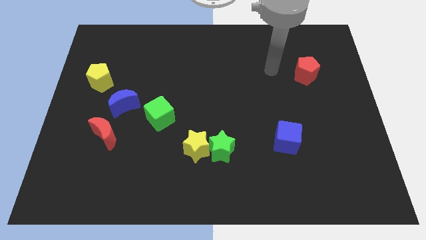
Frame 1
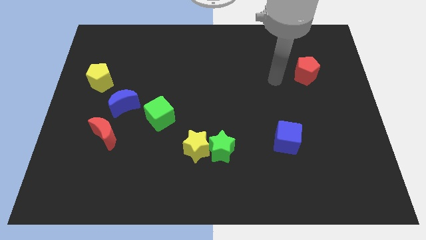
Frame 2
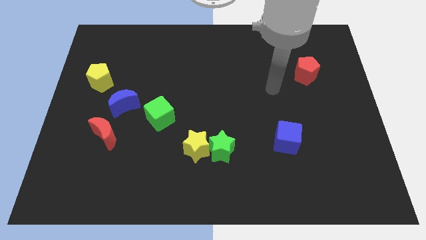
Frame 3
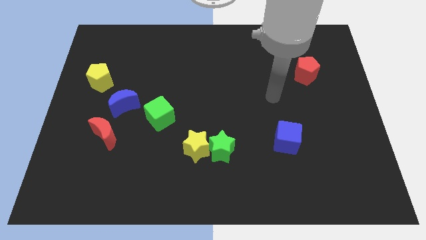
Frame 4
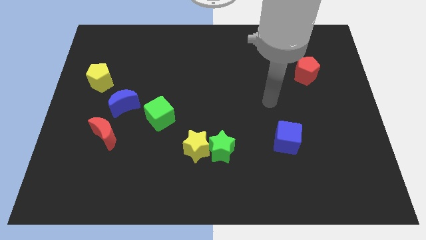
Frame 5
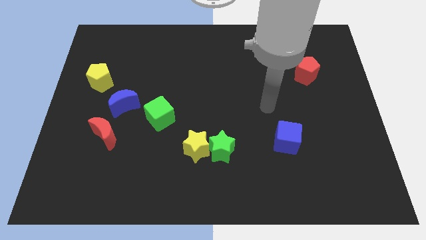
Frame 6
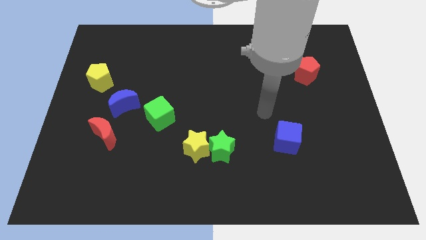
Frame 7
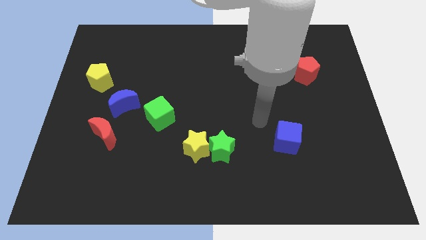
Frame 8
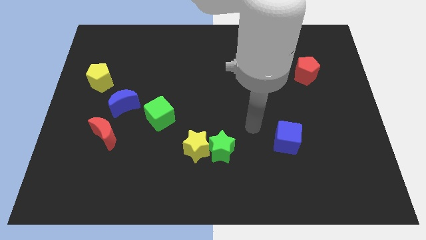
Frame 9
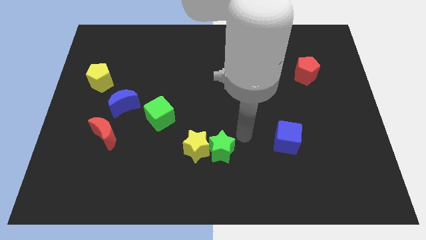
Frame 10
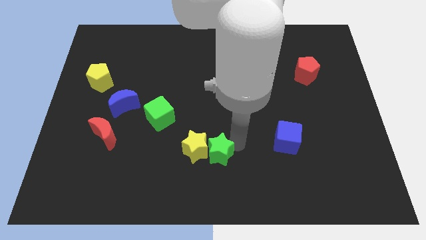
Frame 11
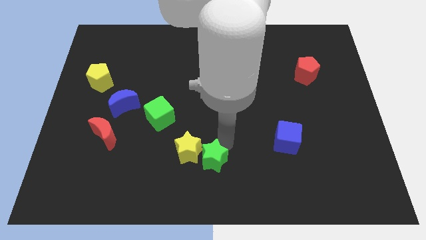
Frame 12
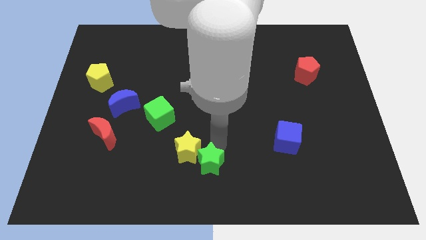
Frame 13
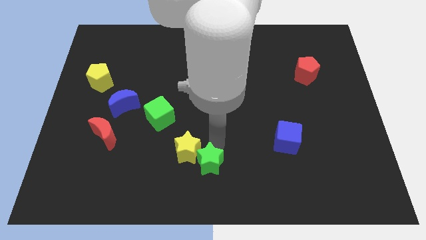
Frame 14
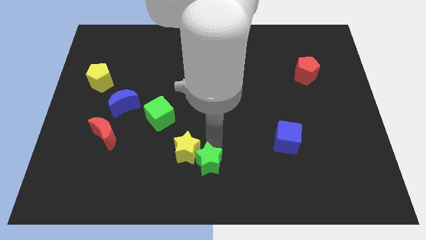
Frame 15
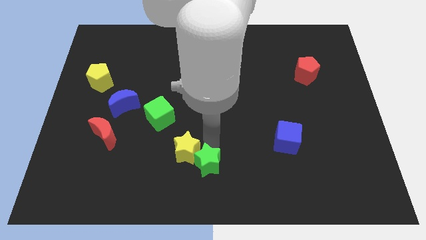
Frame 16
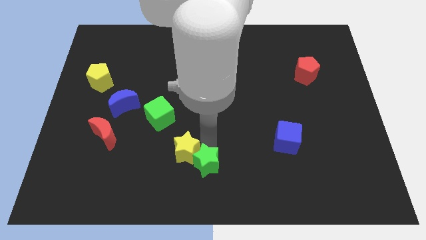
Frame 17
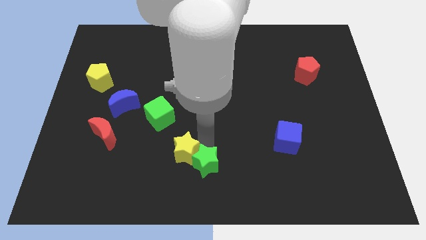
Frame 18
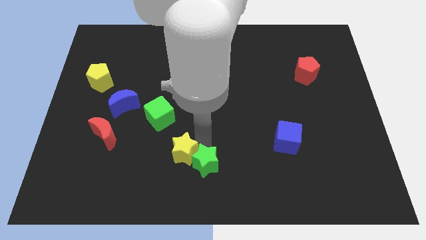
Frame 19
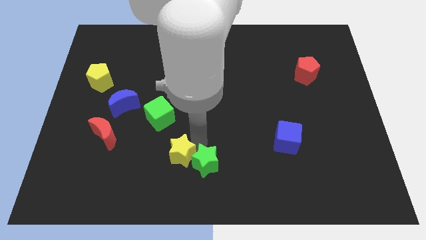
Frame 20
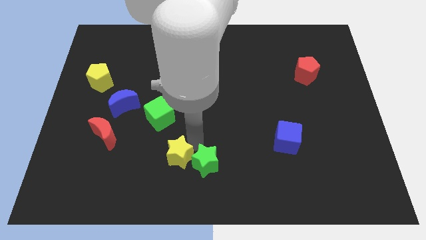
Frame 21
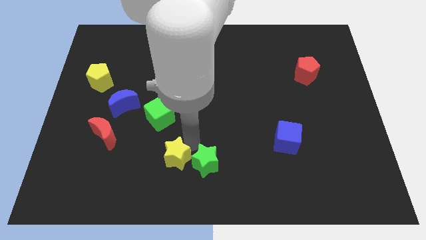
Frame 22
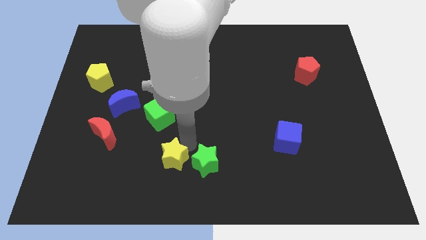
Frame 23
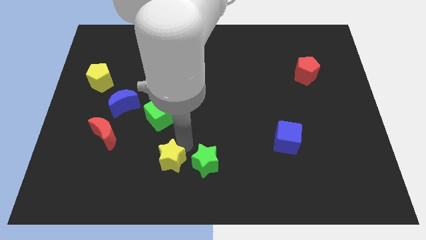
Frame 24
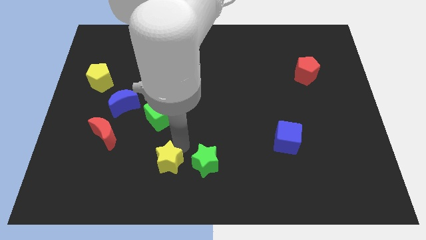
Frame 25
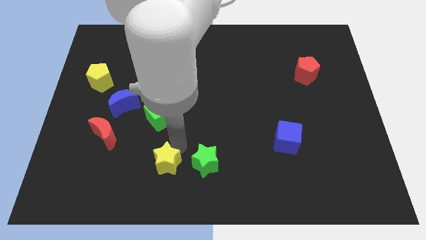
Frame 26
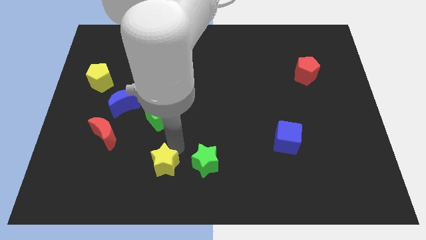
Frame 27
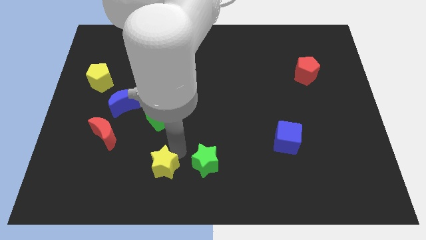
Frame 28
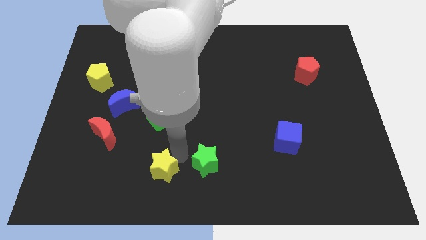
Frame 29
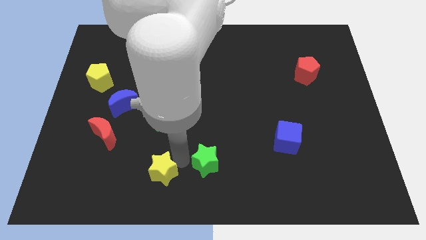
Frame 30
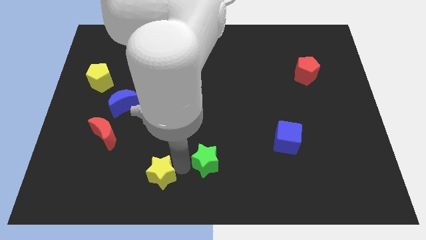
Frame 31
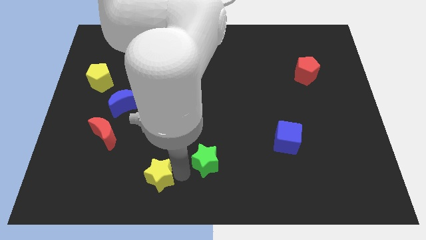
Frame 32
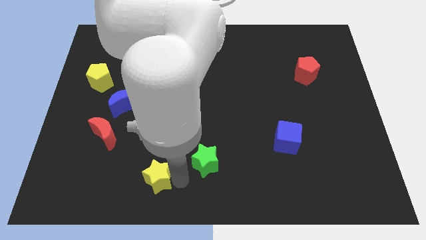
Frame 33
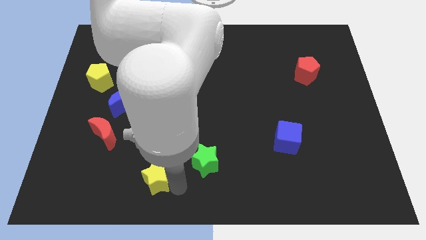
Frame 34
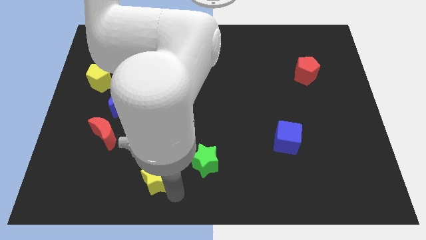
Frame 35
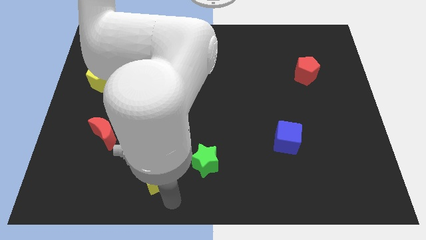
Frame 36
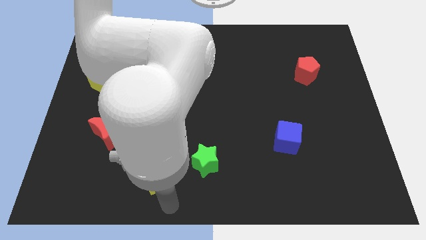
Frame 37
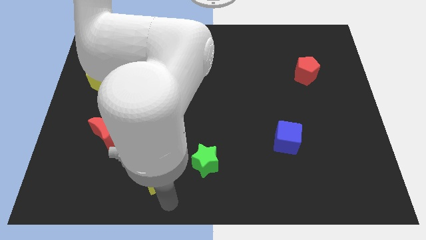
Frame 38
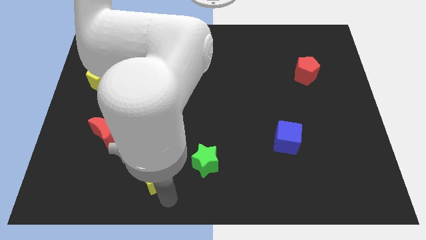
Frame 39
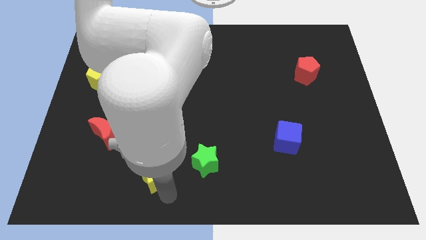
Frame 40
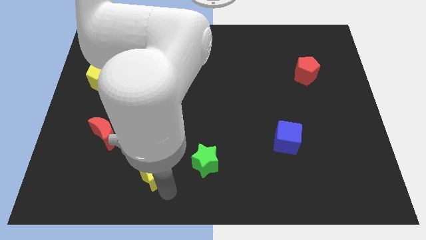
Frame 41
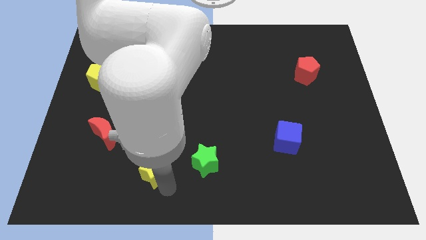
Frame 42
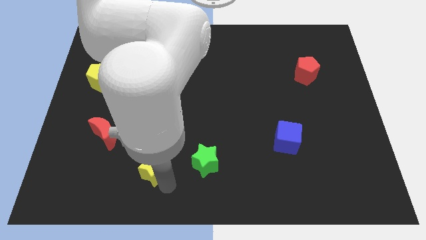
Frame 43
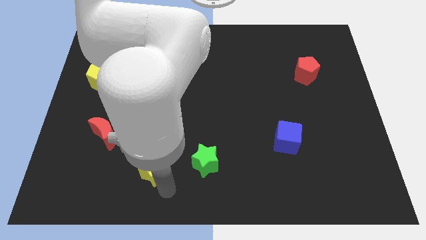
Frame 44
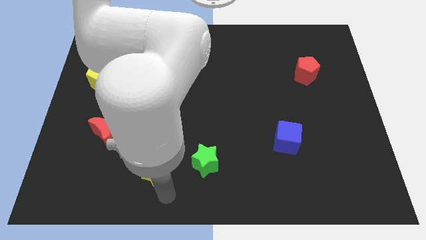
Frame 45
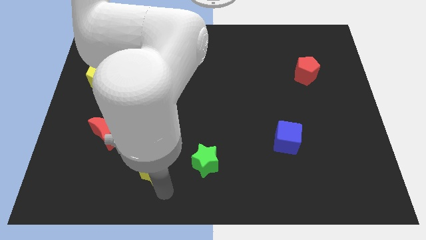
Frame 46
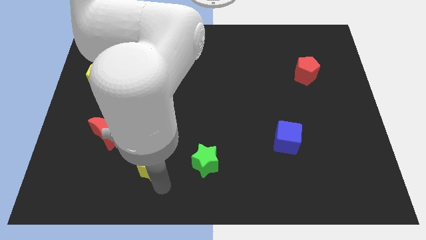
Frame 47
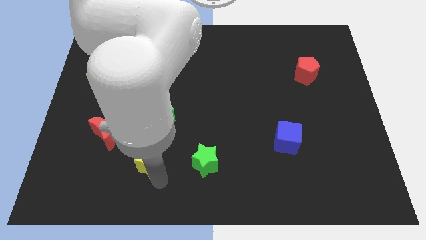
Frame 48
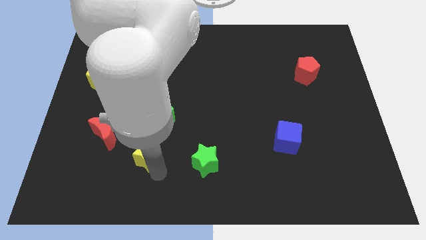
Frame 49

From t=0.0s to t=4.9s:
move the yellow star to the bottom right side of the red moon

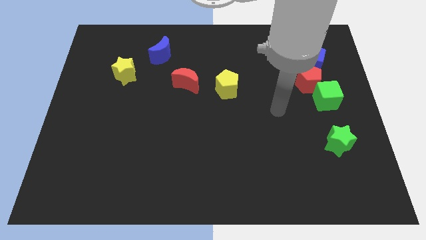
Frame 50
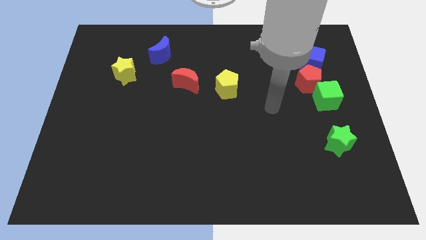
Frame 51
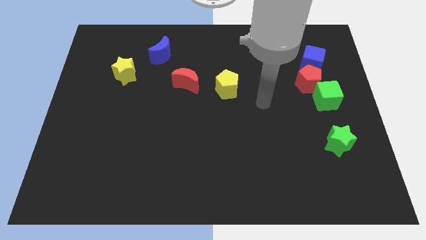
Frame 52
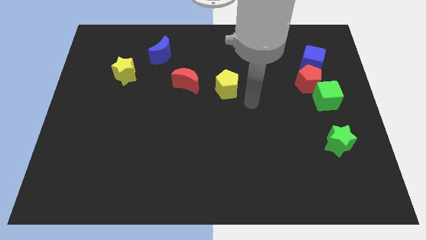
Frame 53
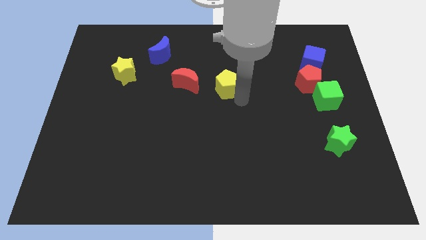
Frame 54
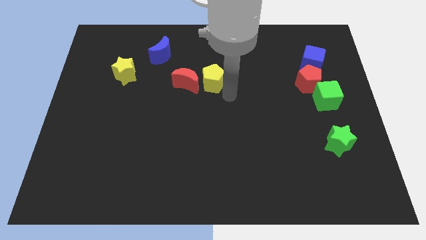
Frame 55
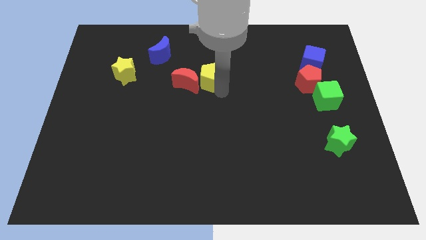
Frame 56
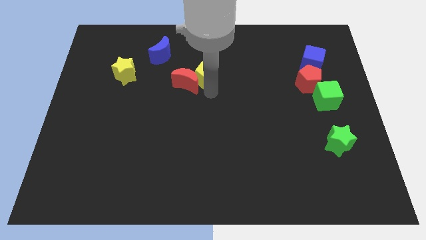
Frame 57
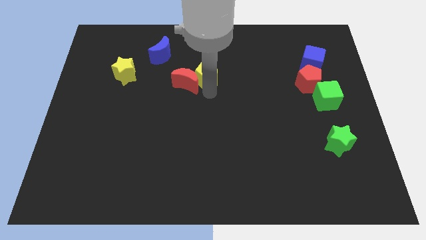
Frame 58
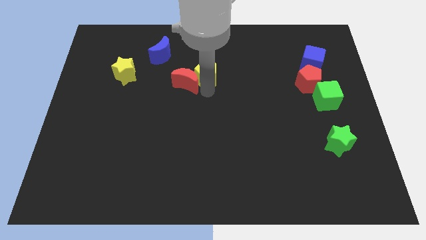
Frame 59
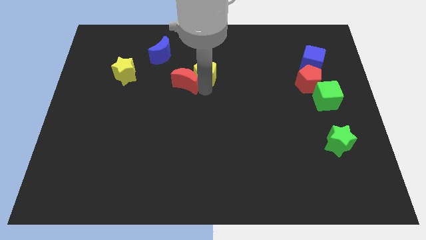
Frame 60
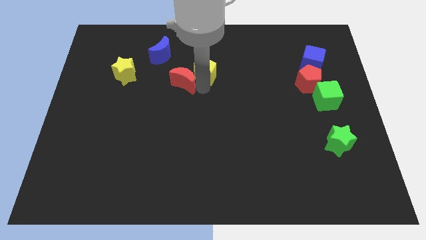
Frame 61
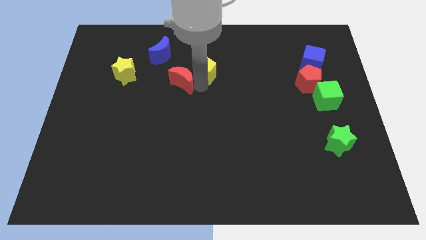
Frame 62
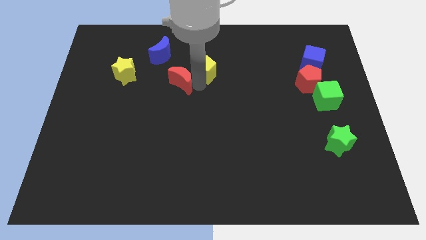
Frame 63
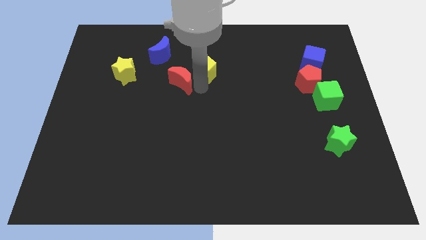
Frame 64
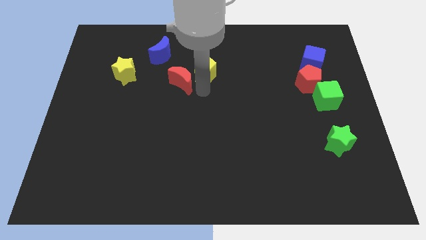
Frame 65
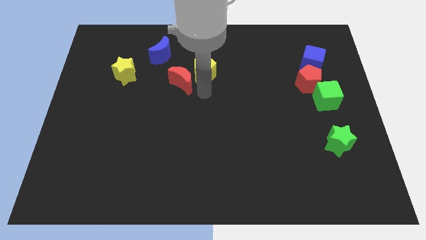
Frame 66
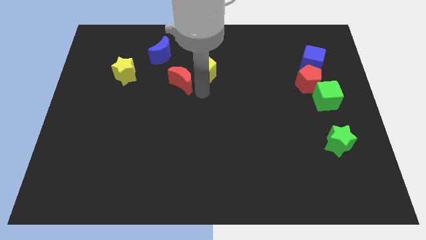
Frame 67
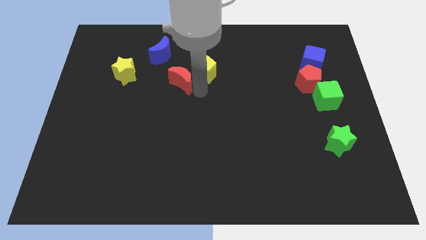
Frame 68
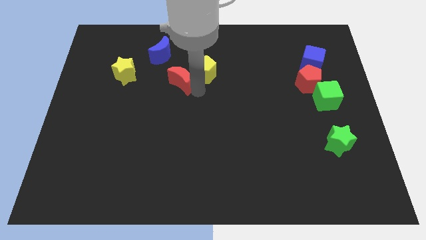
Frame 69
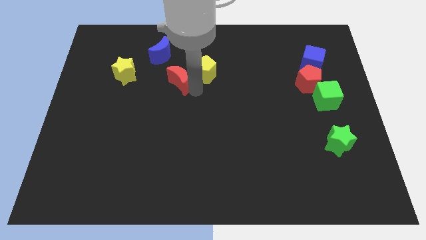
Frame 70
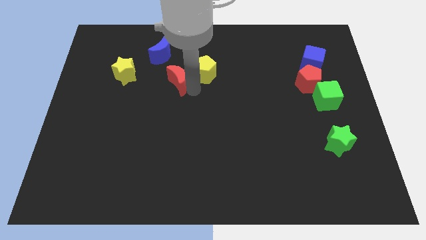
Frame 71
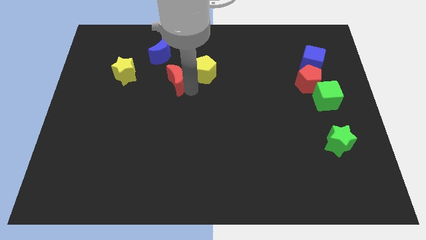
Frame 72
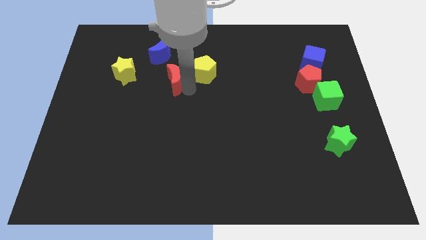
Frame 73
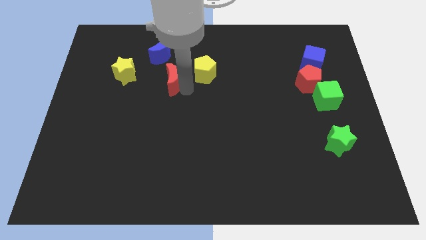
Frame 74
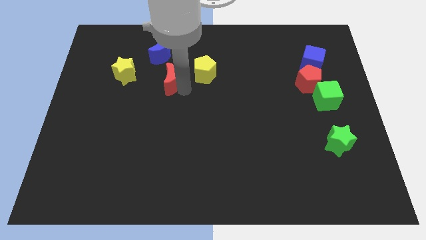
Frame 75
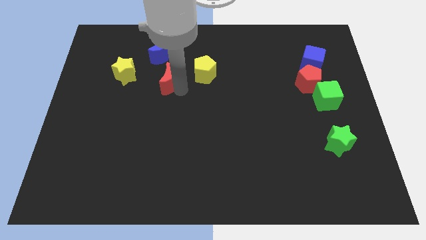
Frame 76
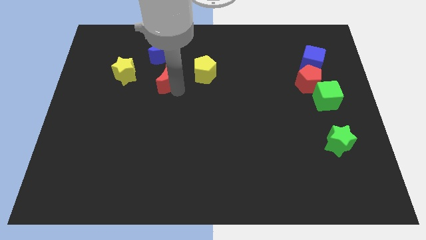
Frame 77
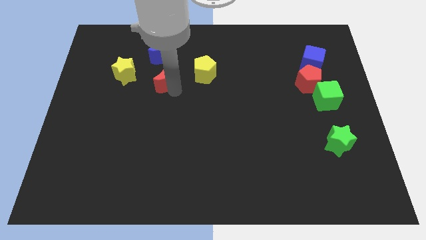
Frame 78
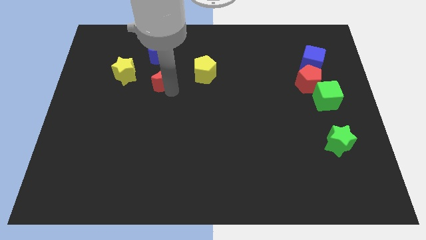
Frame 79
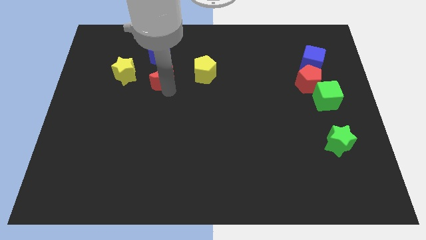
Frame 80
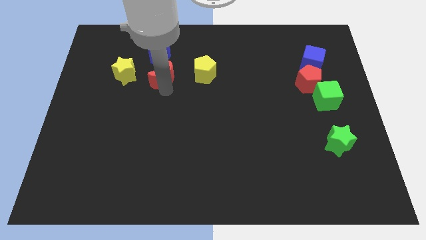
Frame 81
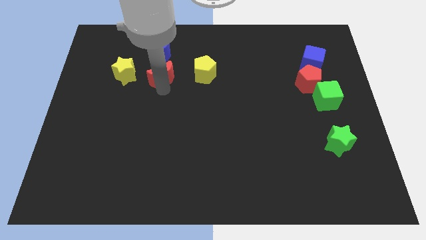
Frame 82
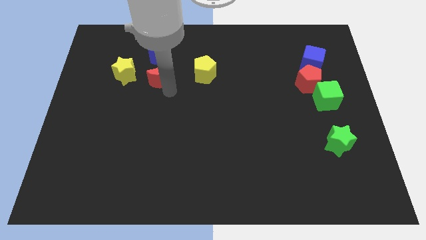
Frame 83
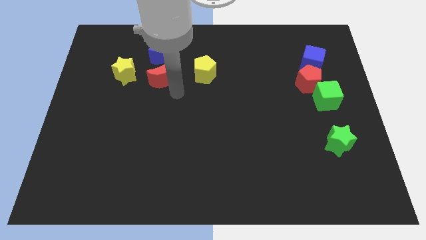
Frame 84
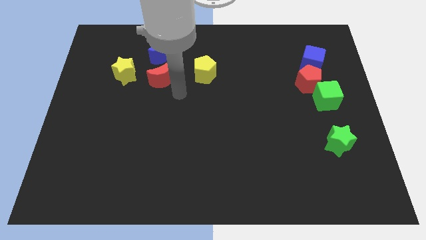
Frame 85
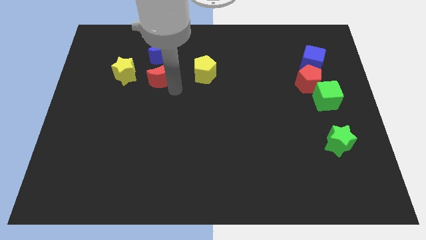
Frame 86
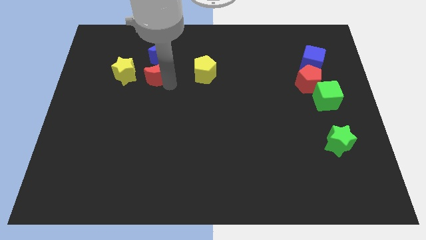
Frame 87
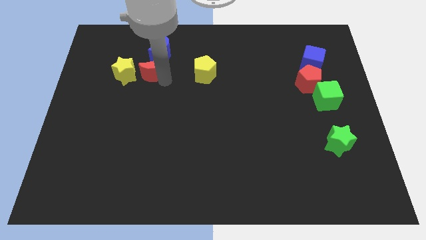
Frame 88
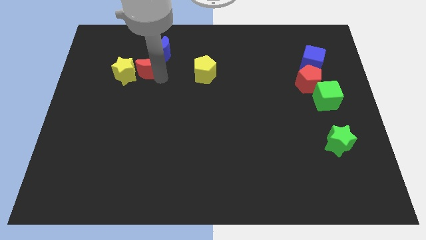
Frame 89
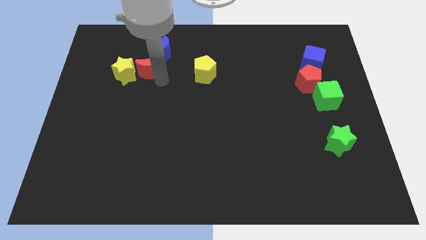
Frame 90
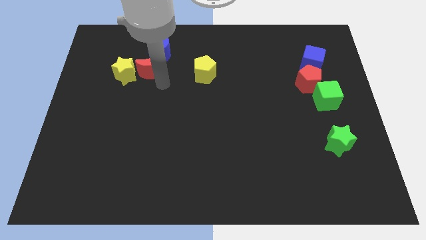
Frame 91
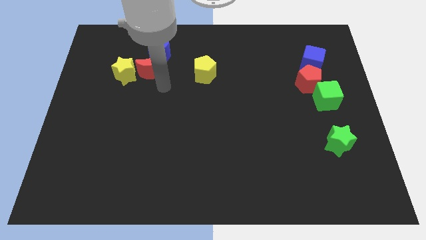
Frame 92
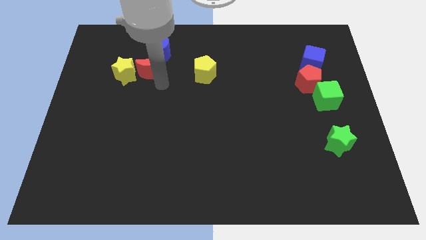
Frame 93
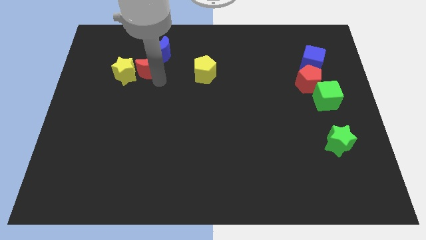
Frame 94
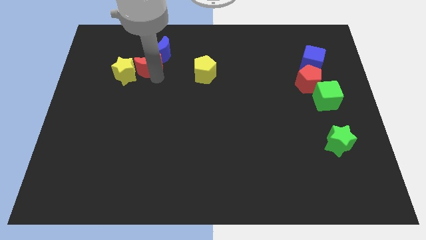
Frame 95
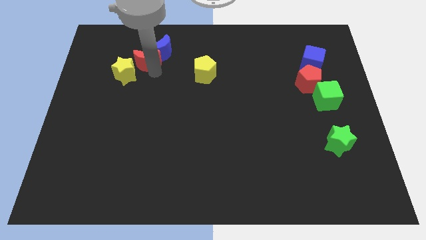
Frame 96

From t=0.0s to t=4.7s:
move the red moon to the left side of the blue moon
